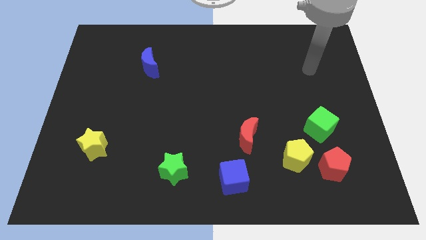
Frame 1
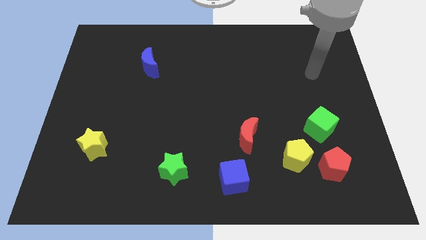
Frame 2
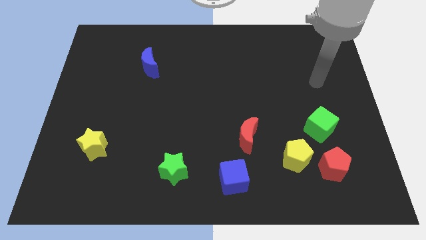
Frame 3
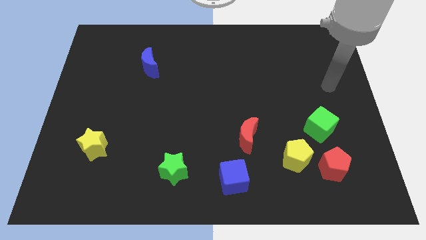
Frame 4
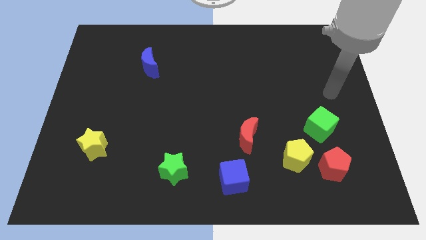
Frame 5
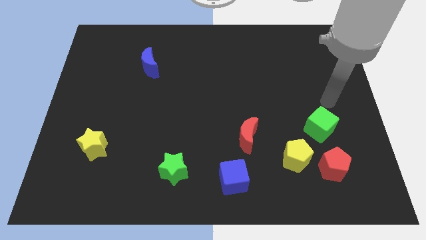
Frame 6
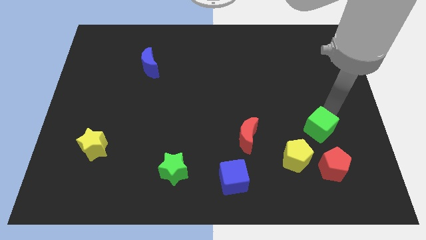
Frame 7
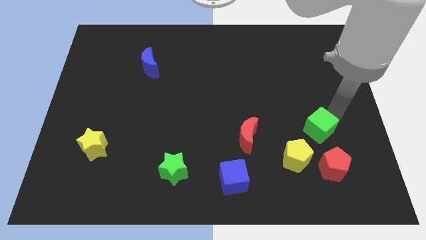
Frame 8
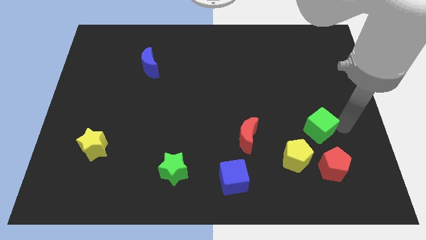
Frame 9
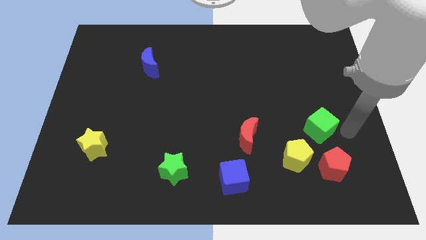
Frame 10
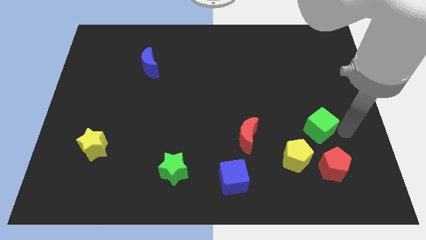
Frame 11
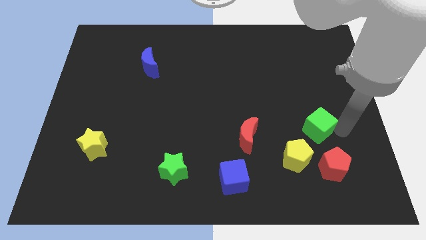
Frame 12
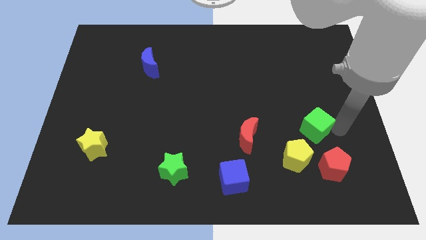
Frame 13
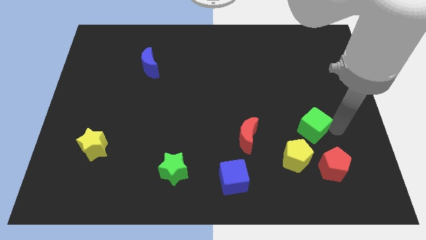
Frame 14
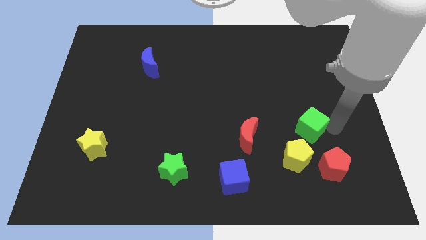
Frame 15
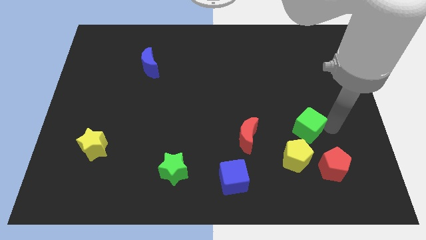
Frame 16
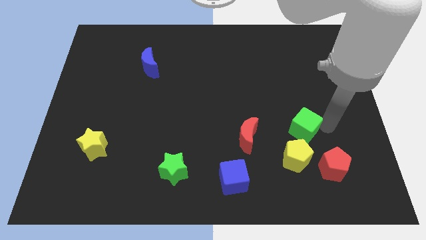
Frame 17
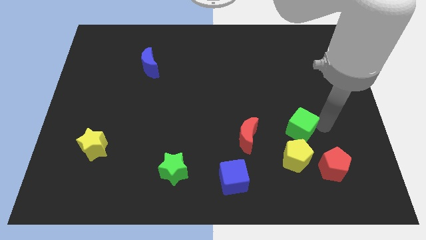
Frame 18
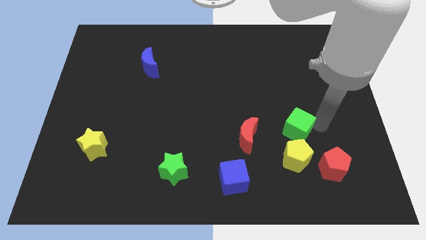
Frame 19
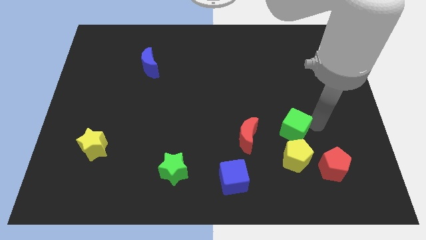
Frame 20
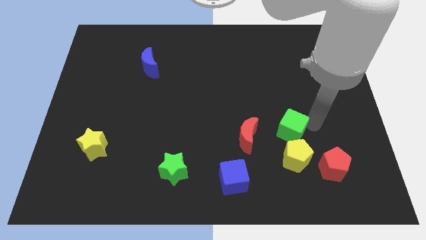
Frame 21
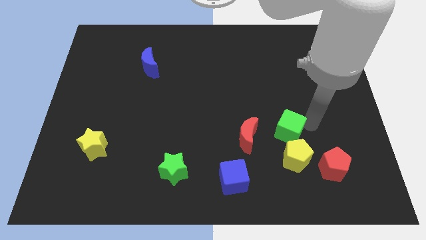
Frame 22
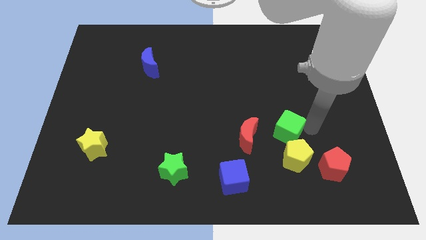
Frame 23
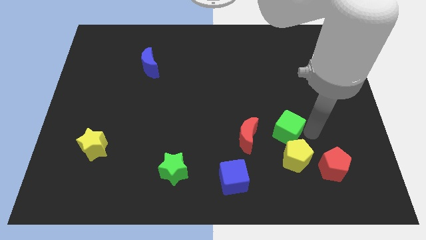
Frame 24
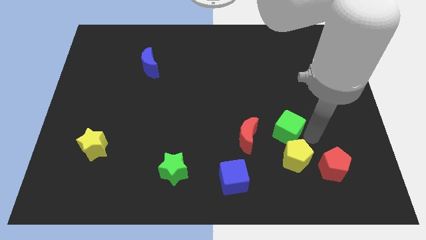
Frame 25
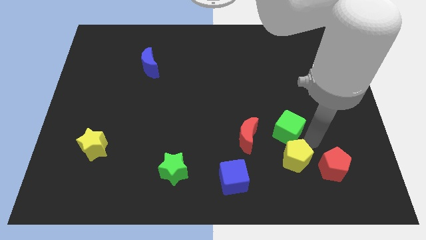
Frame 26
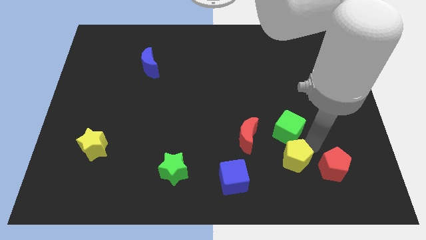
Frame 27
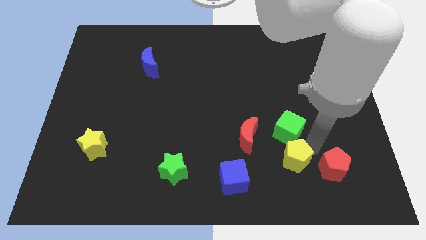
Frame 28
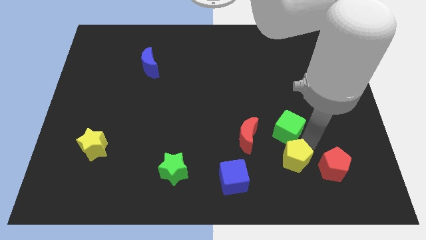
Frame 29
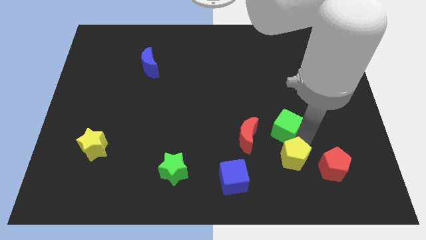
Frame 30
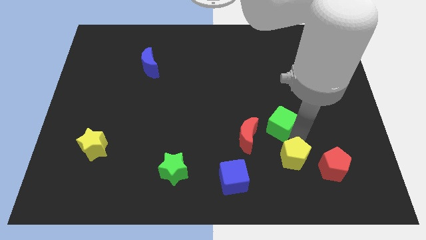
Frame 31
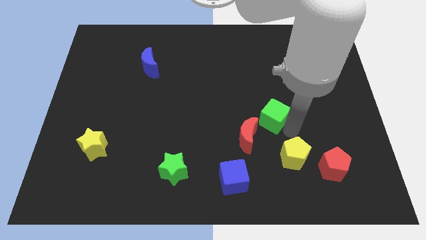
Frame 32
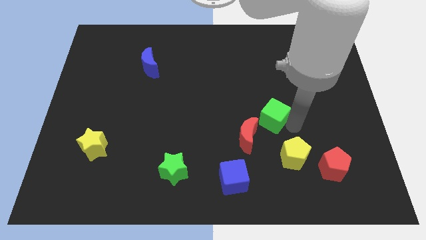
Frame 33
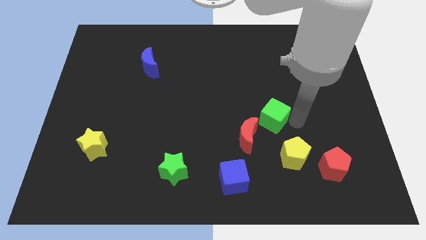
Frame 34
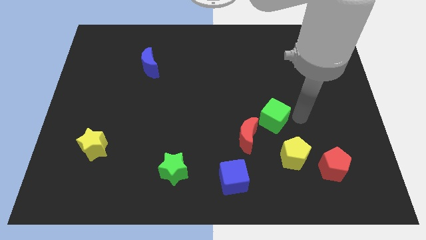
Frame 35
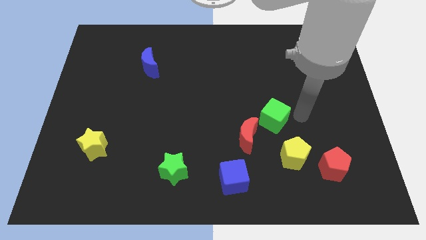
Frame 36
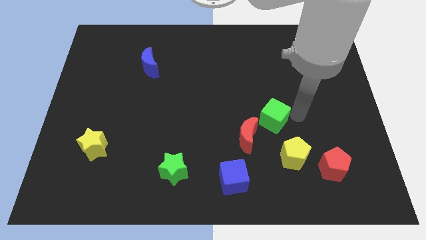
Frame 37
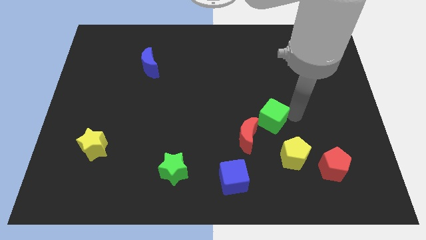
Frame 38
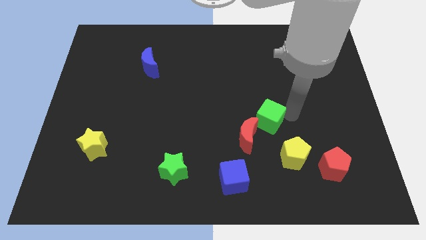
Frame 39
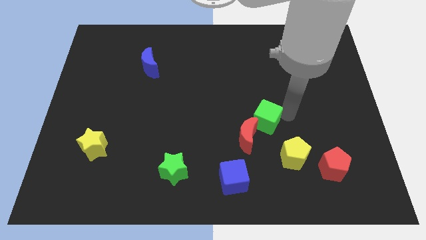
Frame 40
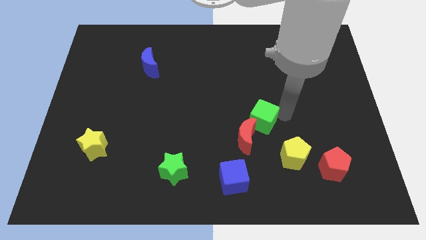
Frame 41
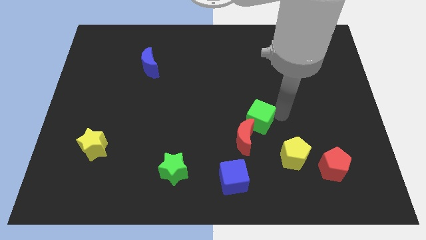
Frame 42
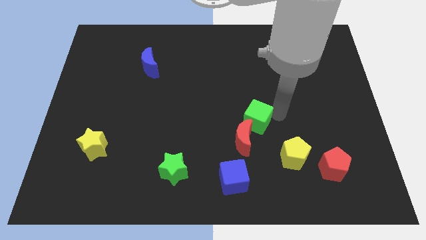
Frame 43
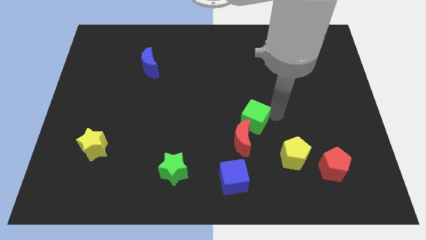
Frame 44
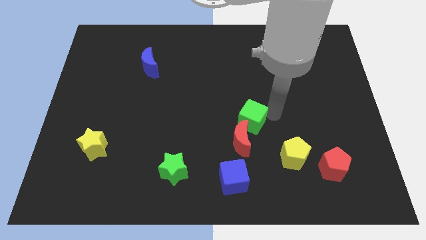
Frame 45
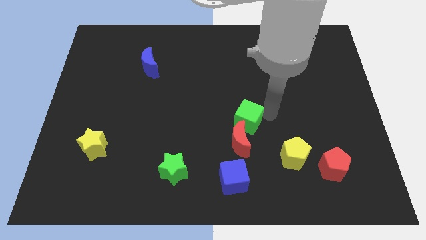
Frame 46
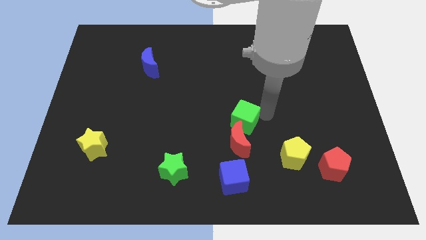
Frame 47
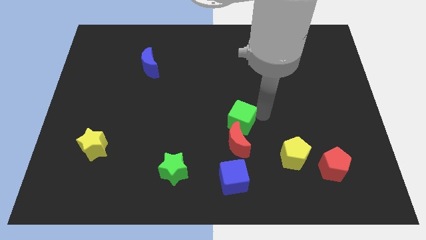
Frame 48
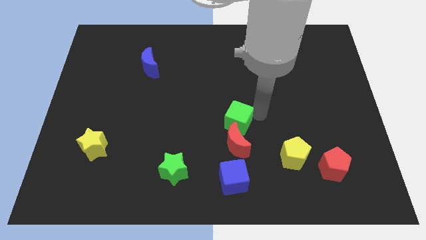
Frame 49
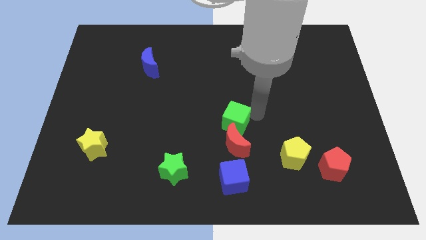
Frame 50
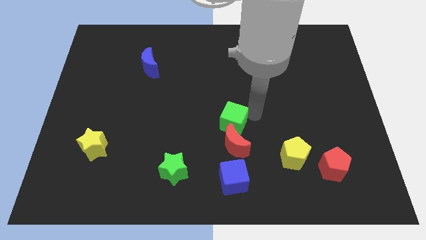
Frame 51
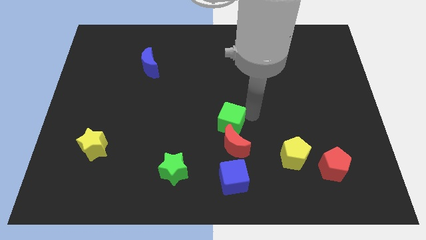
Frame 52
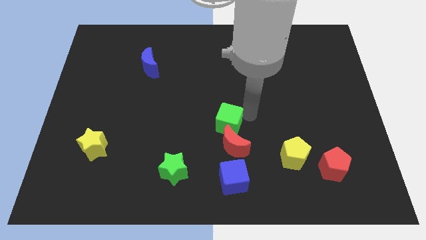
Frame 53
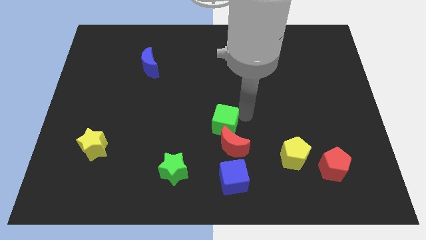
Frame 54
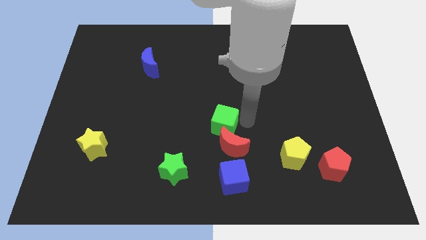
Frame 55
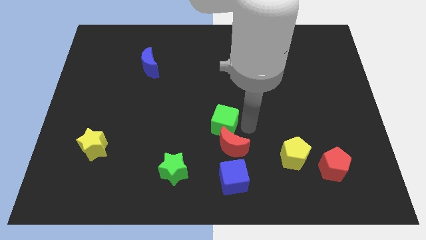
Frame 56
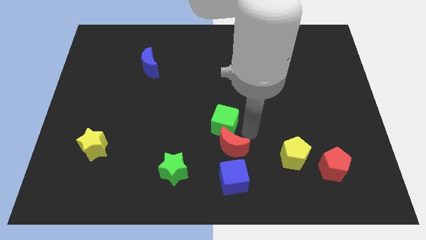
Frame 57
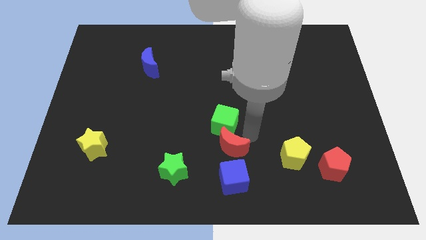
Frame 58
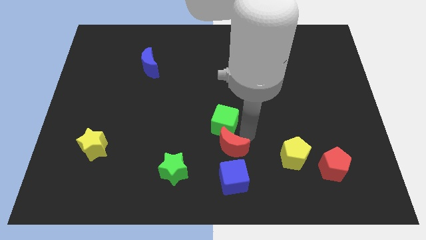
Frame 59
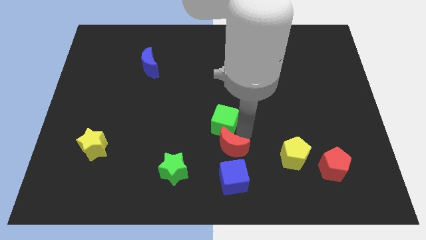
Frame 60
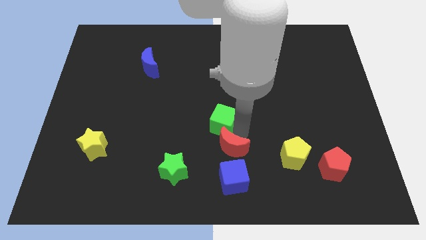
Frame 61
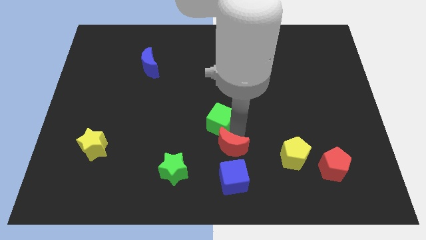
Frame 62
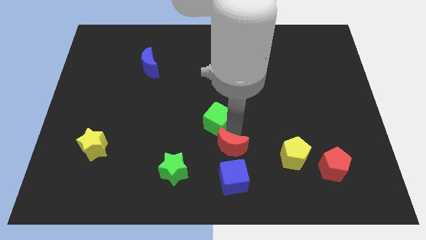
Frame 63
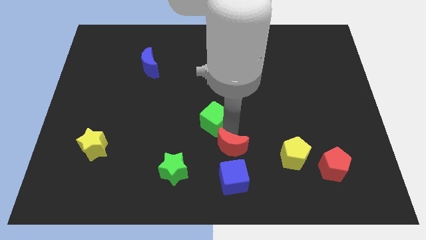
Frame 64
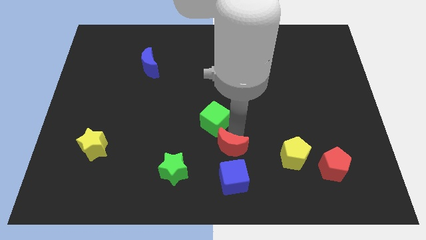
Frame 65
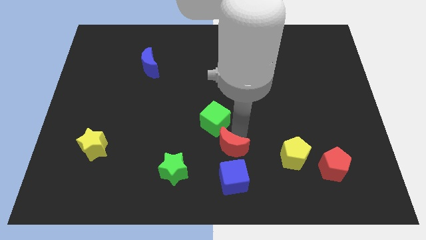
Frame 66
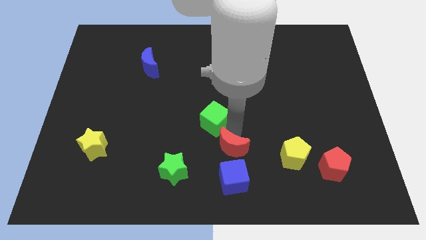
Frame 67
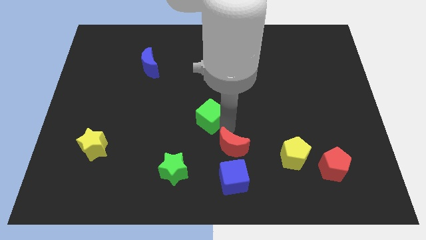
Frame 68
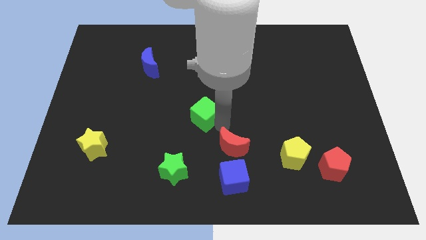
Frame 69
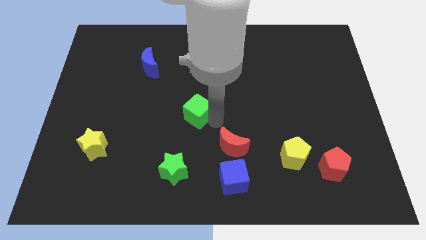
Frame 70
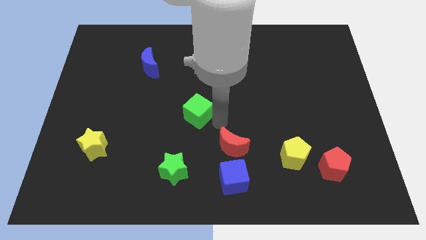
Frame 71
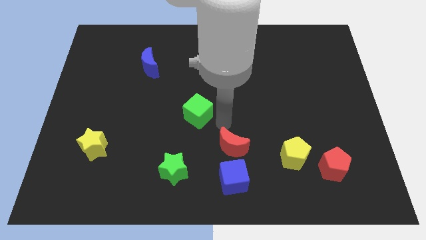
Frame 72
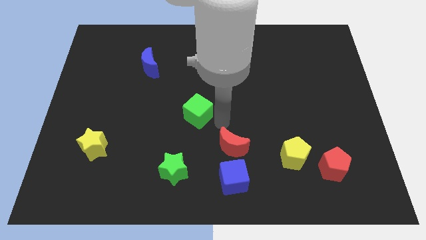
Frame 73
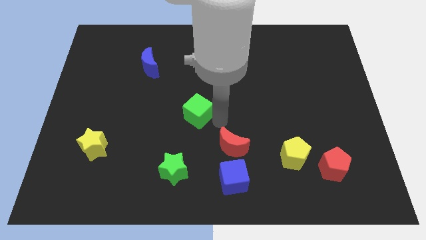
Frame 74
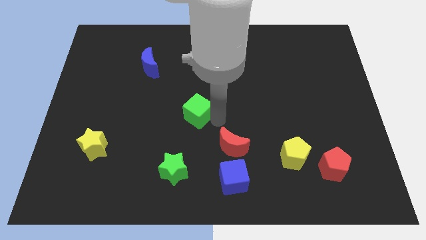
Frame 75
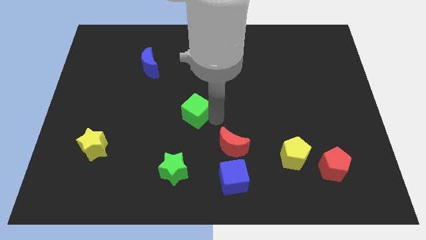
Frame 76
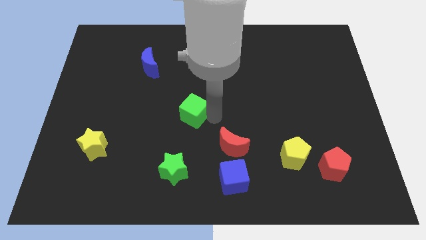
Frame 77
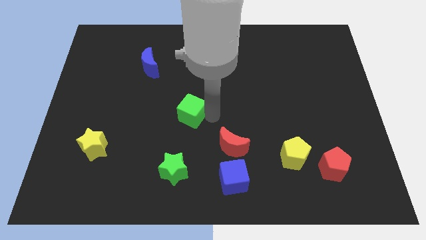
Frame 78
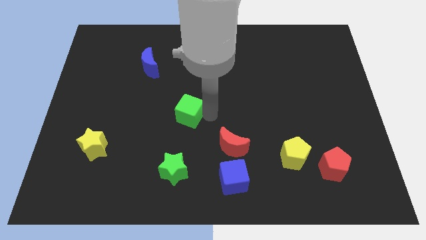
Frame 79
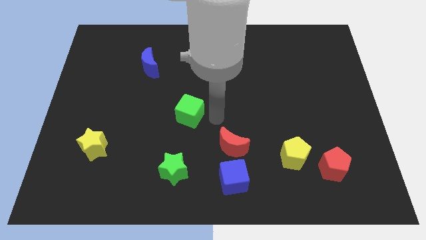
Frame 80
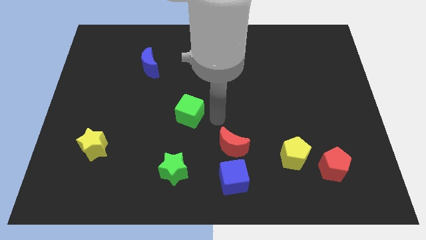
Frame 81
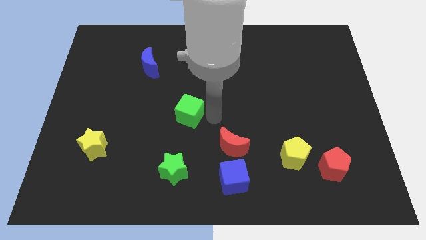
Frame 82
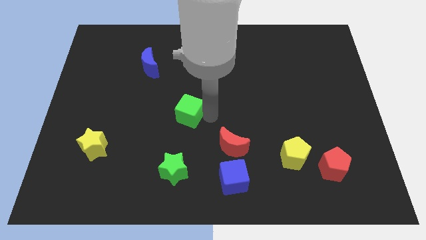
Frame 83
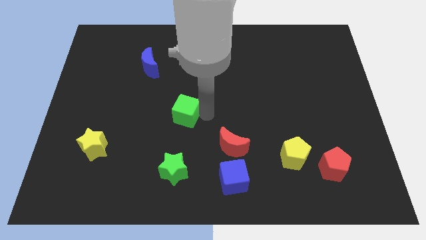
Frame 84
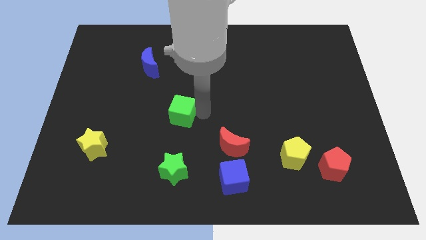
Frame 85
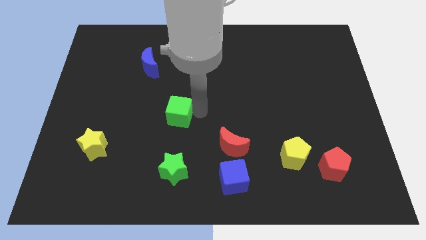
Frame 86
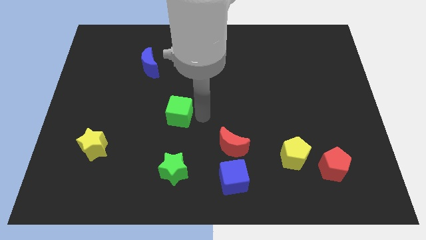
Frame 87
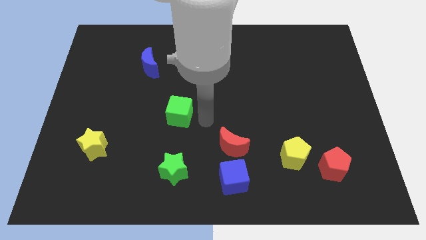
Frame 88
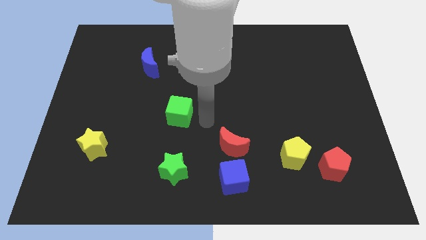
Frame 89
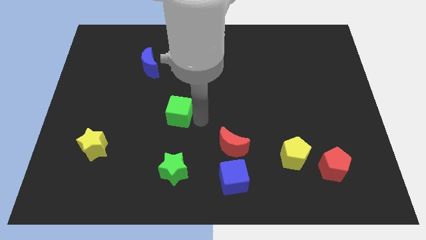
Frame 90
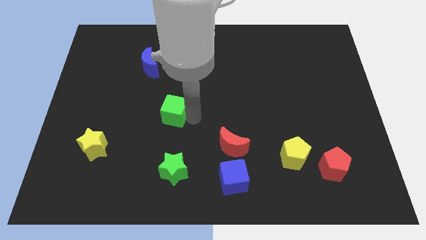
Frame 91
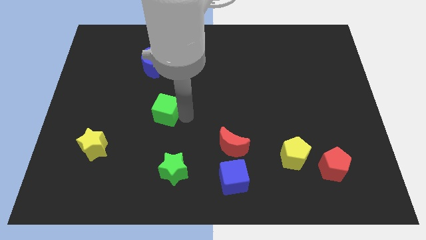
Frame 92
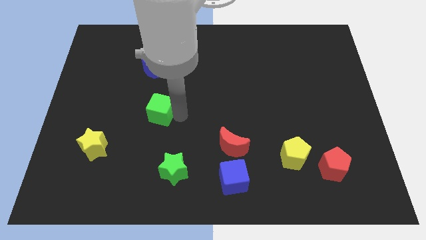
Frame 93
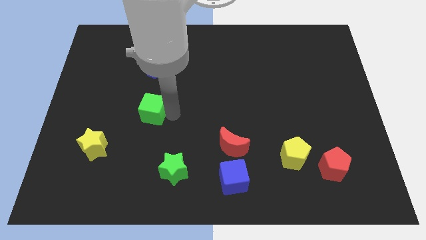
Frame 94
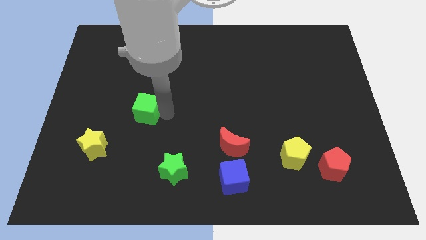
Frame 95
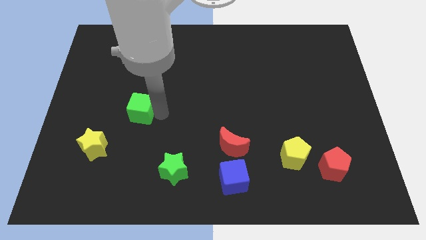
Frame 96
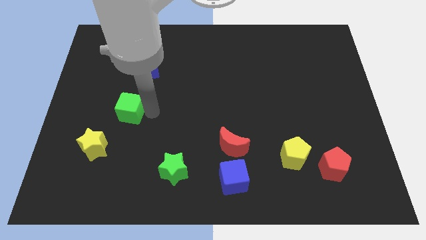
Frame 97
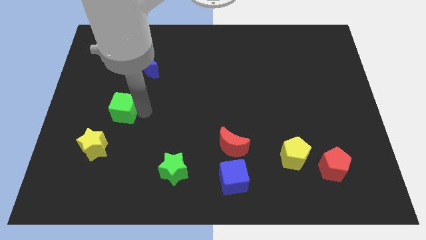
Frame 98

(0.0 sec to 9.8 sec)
move the green cube above the yellow star
